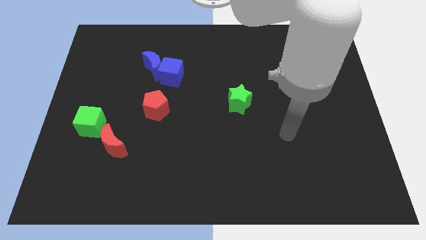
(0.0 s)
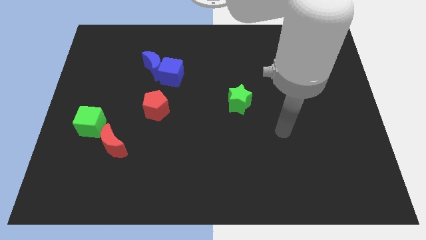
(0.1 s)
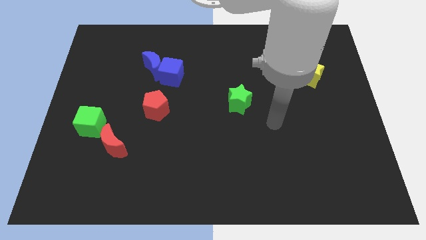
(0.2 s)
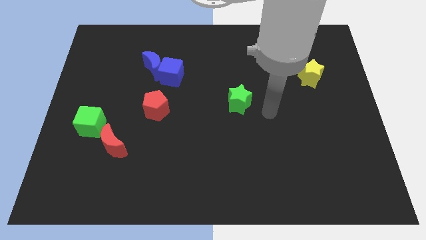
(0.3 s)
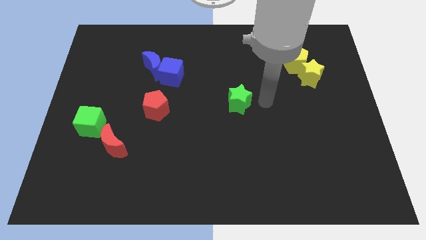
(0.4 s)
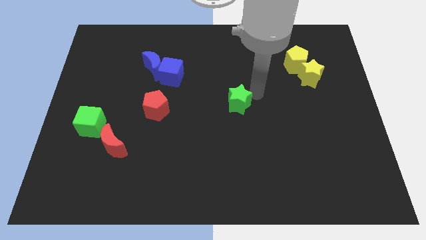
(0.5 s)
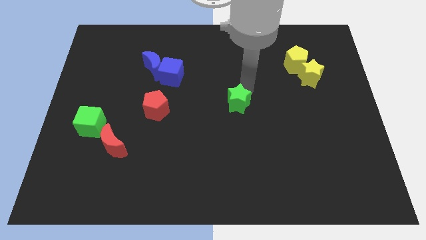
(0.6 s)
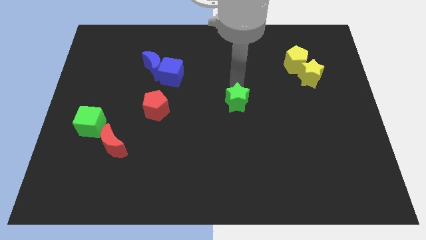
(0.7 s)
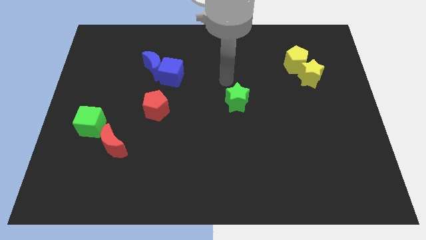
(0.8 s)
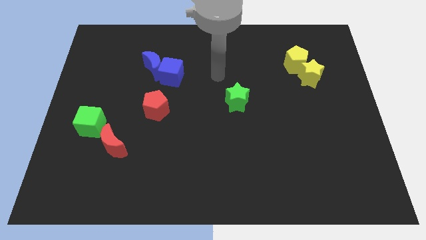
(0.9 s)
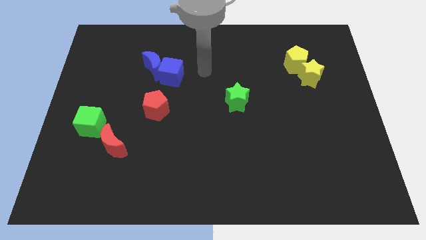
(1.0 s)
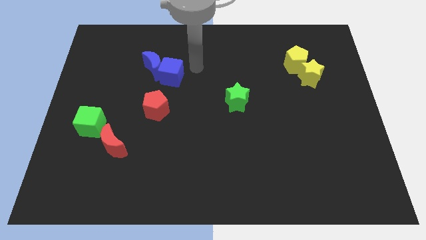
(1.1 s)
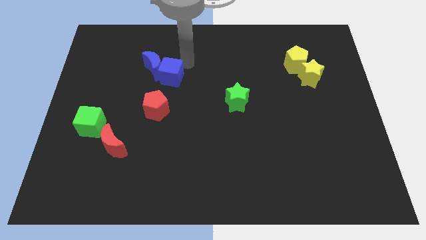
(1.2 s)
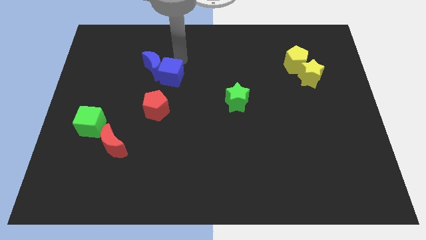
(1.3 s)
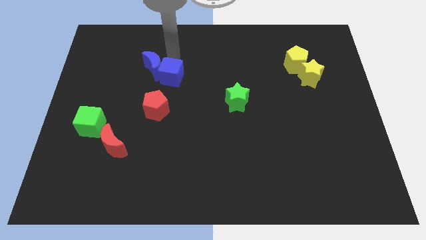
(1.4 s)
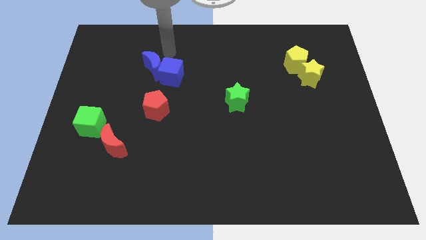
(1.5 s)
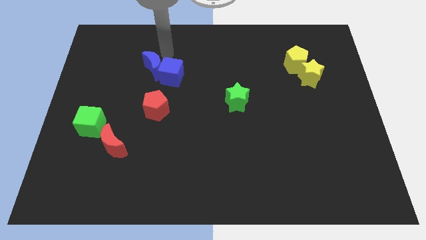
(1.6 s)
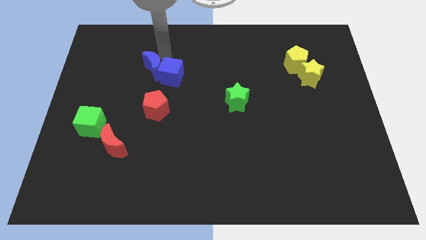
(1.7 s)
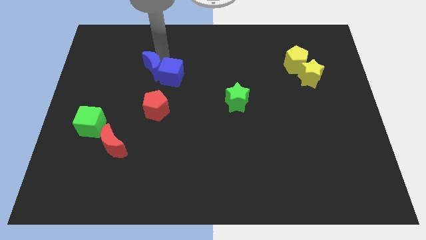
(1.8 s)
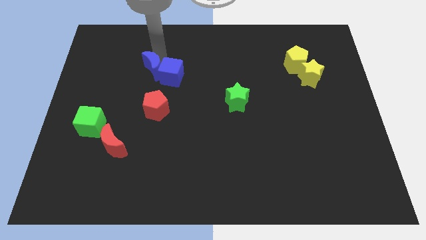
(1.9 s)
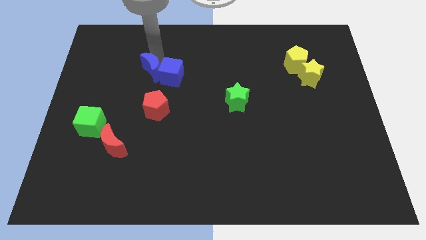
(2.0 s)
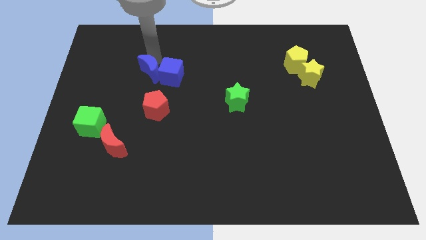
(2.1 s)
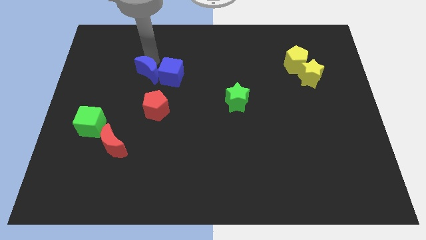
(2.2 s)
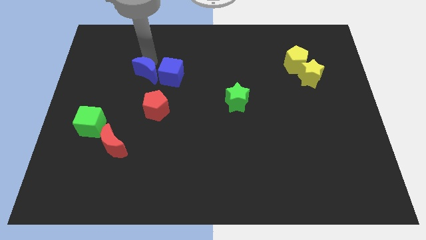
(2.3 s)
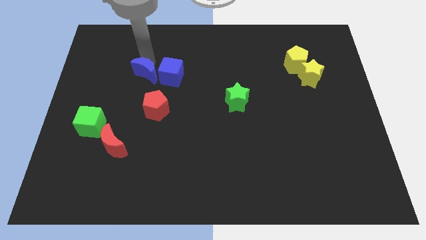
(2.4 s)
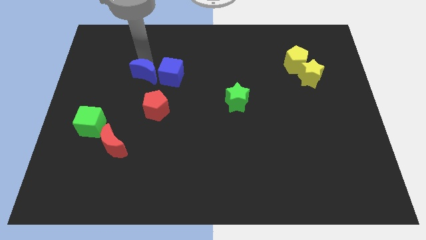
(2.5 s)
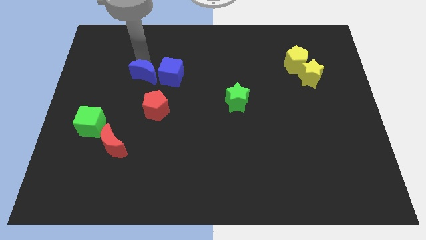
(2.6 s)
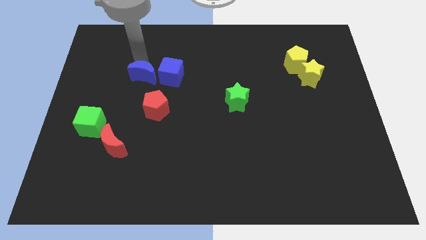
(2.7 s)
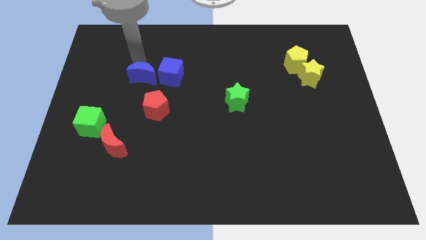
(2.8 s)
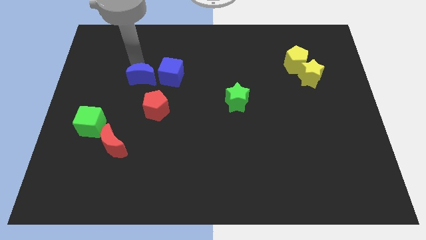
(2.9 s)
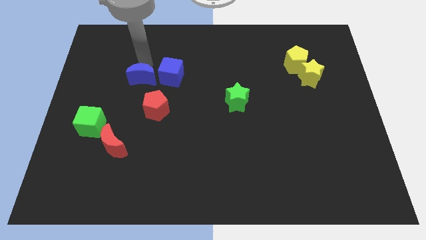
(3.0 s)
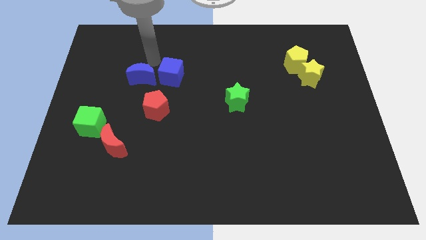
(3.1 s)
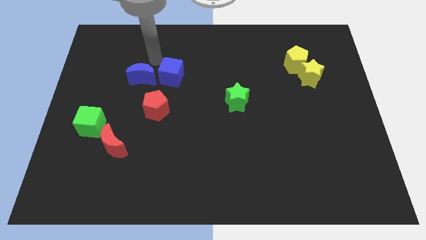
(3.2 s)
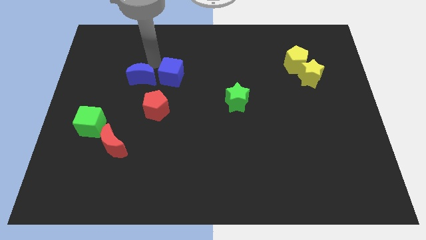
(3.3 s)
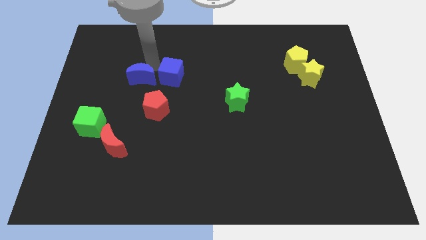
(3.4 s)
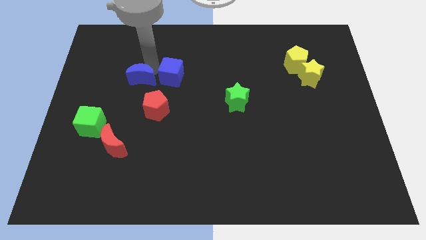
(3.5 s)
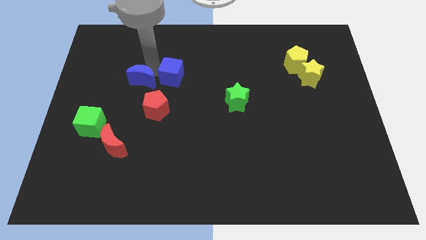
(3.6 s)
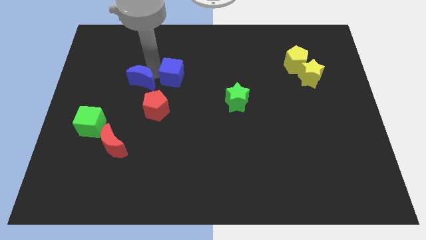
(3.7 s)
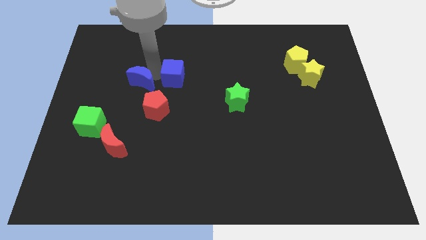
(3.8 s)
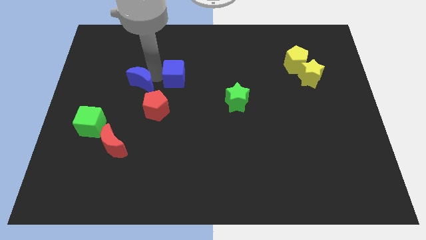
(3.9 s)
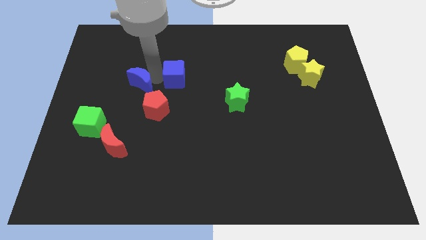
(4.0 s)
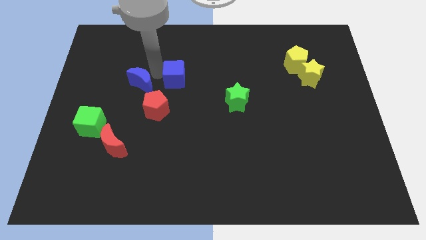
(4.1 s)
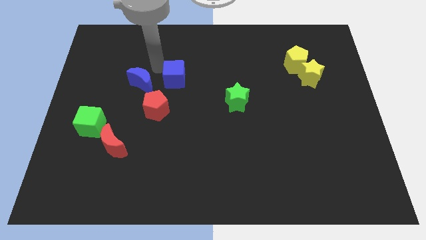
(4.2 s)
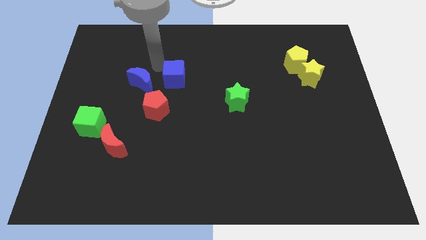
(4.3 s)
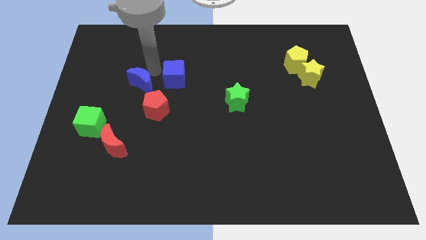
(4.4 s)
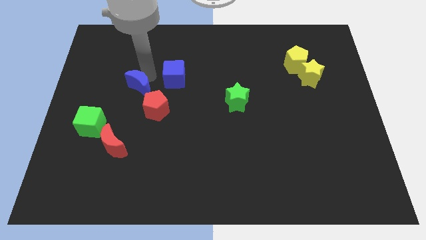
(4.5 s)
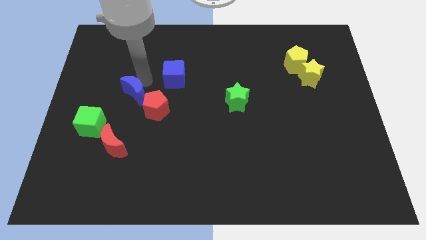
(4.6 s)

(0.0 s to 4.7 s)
push the blue moon above the red moon

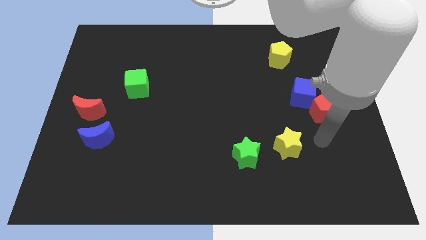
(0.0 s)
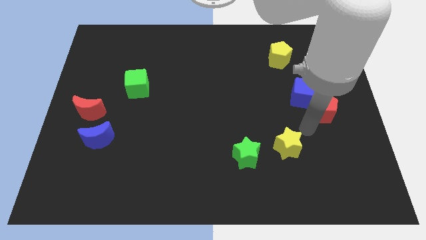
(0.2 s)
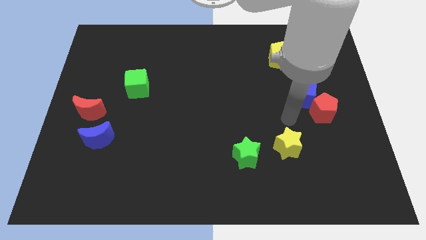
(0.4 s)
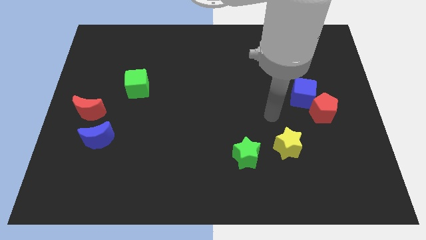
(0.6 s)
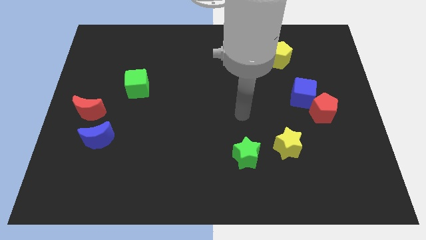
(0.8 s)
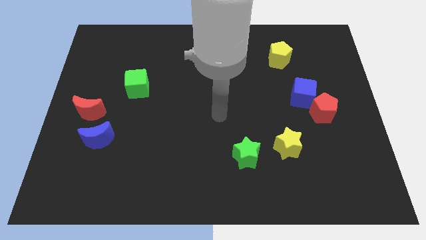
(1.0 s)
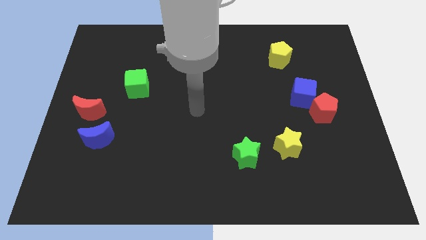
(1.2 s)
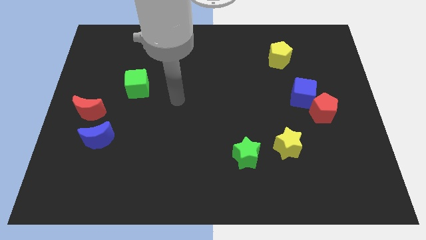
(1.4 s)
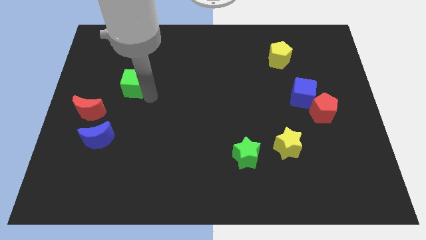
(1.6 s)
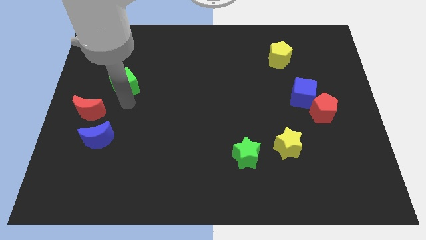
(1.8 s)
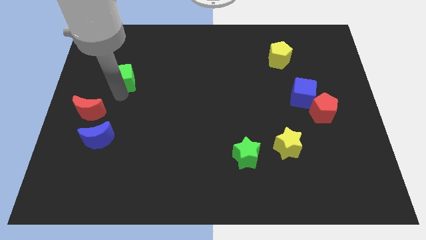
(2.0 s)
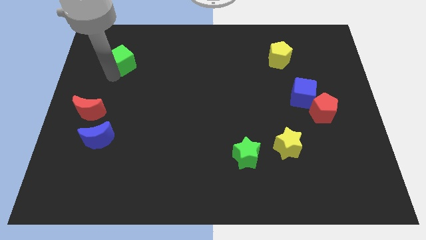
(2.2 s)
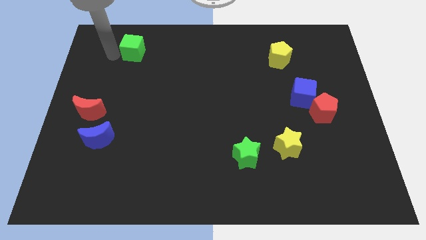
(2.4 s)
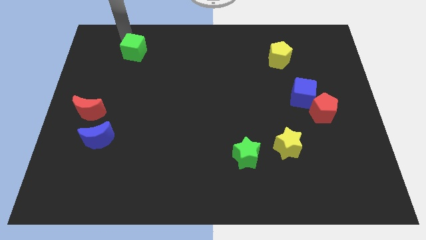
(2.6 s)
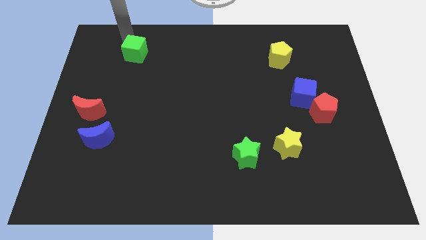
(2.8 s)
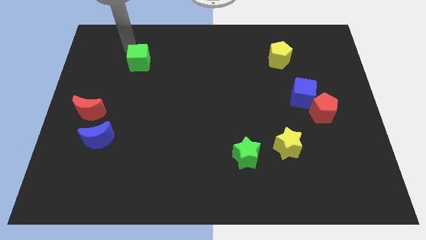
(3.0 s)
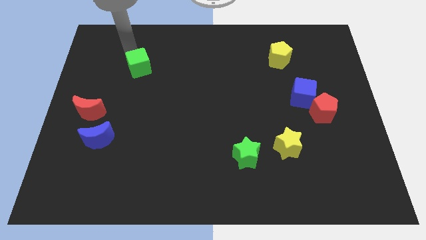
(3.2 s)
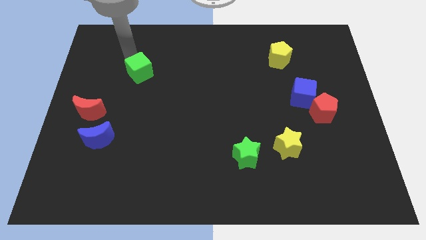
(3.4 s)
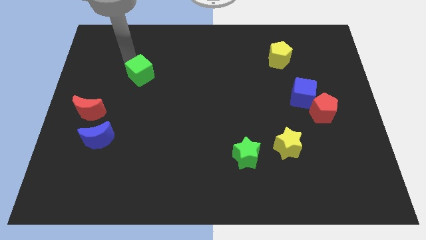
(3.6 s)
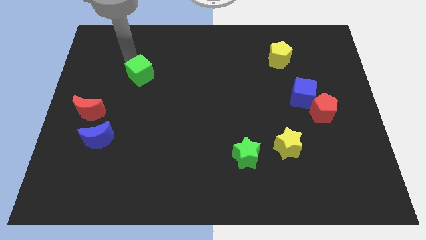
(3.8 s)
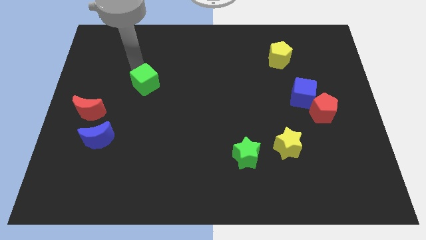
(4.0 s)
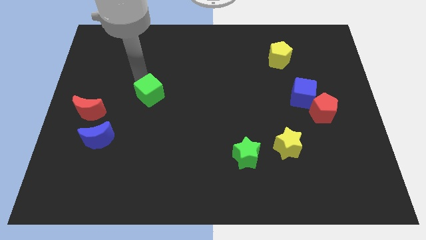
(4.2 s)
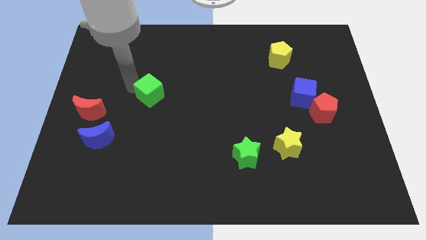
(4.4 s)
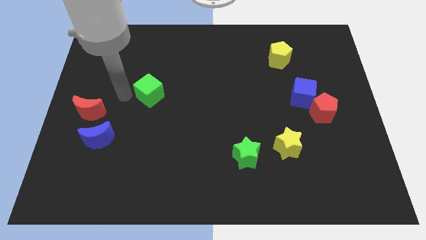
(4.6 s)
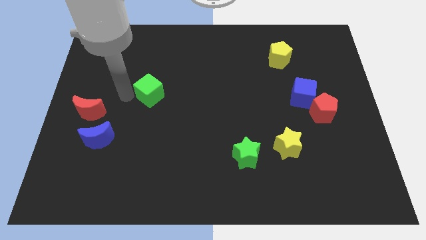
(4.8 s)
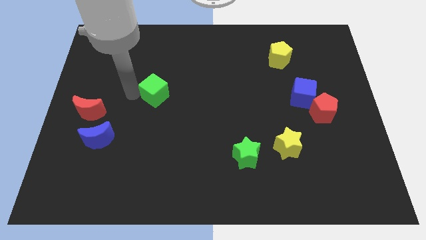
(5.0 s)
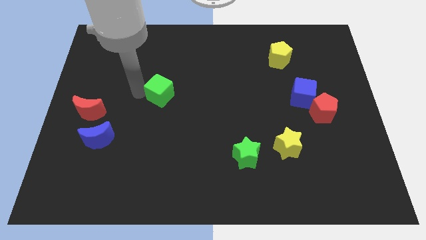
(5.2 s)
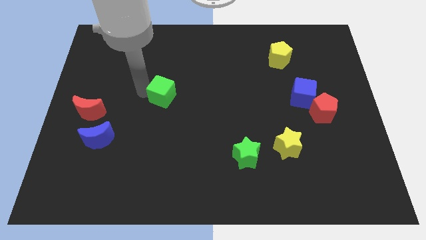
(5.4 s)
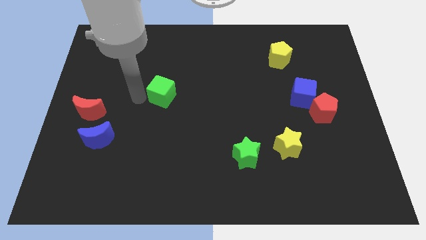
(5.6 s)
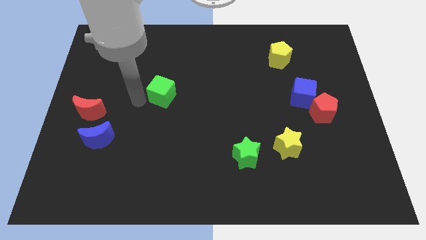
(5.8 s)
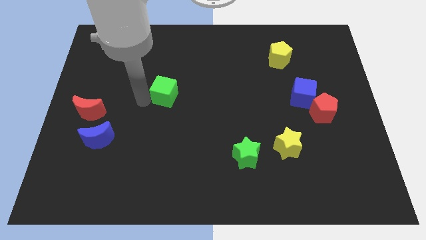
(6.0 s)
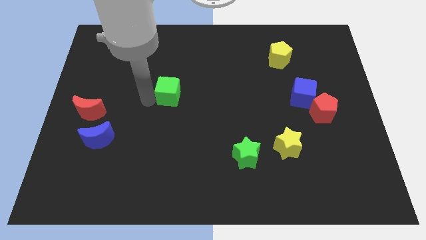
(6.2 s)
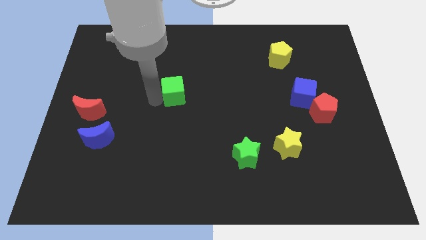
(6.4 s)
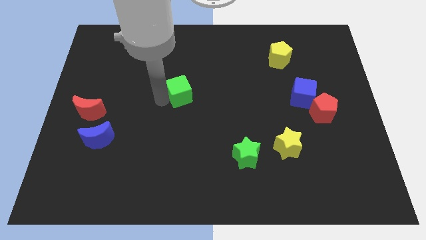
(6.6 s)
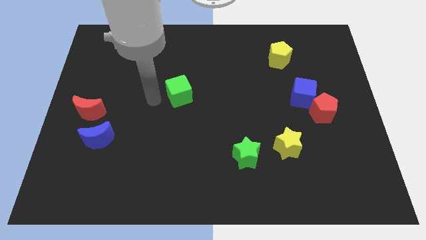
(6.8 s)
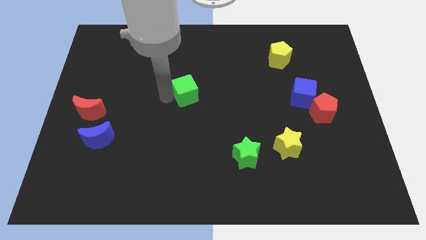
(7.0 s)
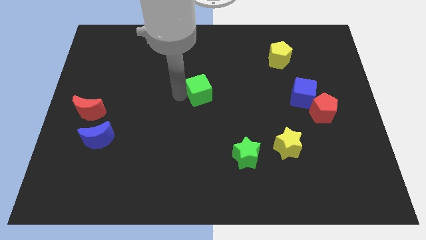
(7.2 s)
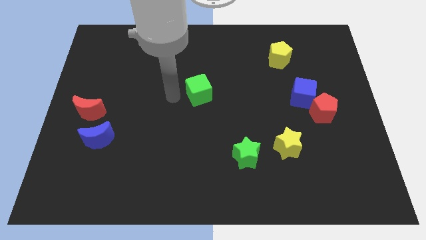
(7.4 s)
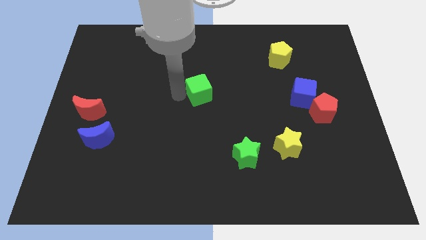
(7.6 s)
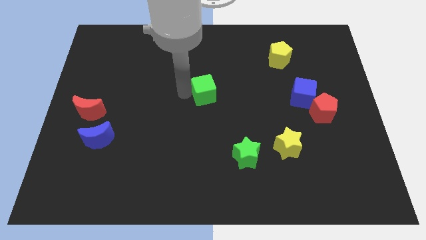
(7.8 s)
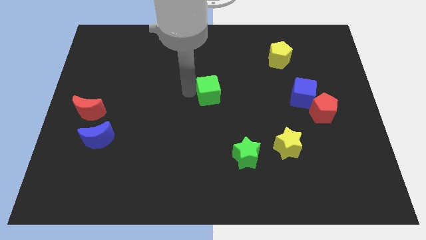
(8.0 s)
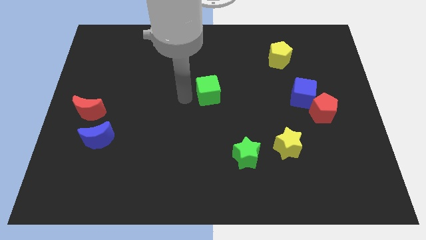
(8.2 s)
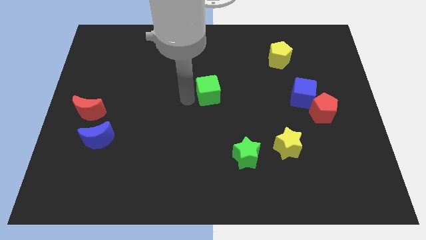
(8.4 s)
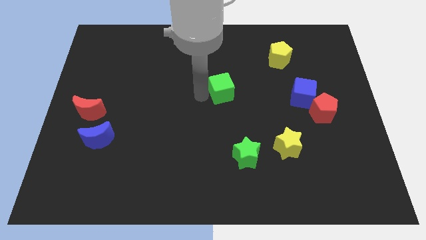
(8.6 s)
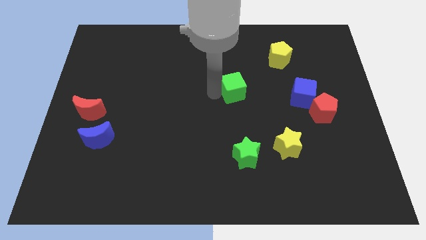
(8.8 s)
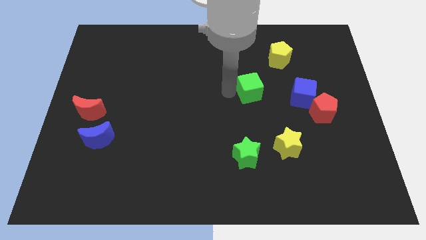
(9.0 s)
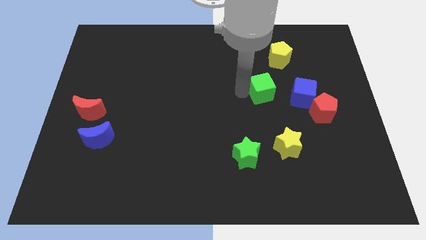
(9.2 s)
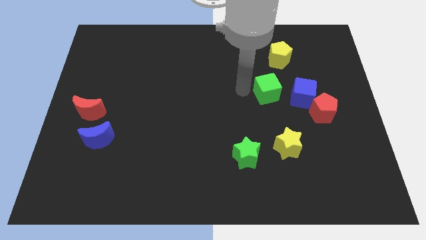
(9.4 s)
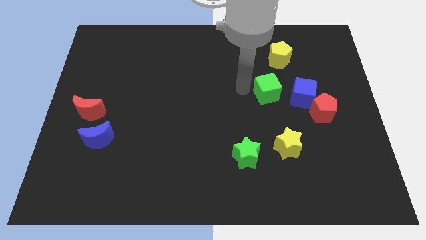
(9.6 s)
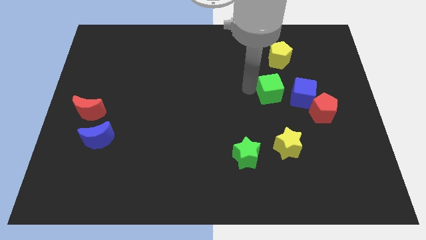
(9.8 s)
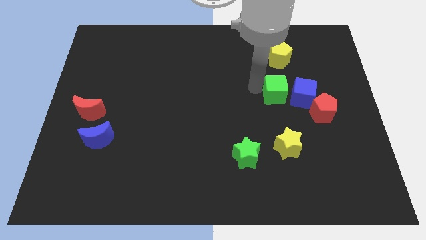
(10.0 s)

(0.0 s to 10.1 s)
move the green cube to the top left side of the red pentagon
